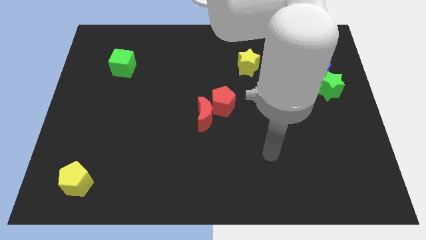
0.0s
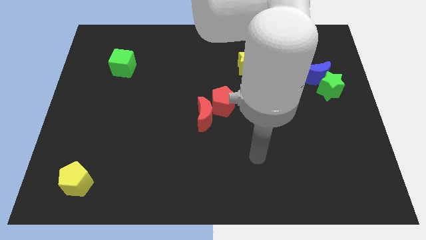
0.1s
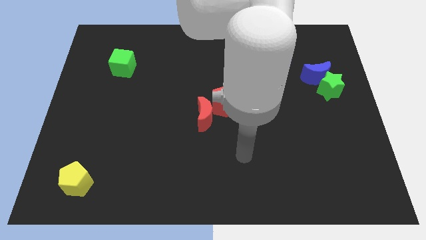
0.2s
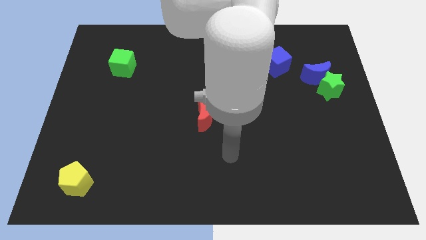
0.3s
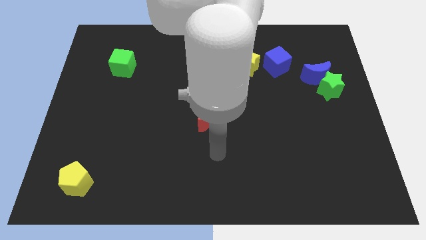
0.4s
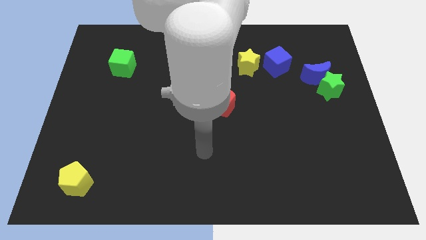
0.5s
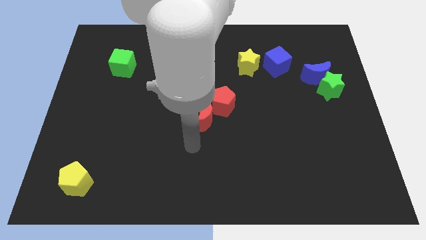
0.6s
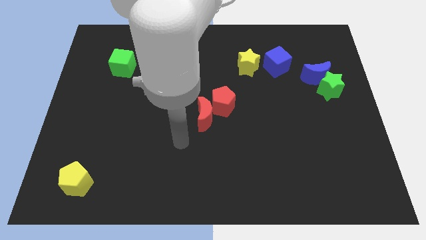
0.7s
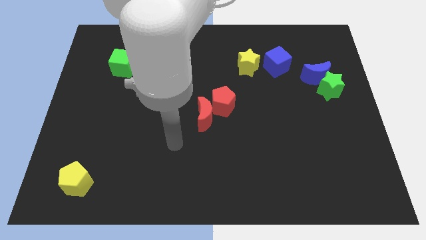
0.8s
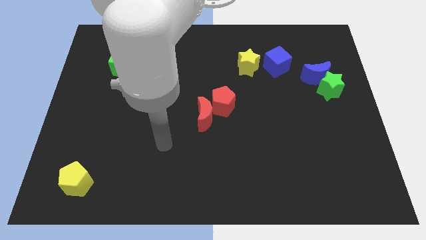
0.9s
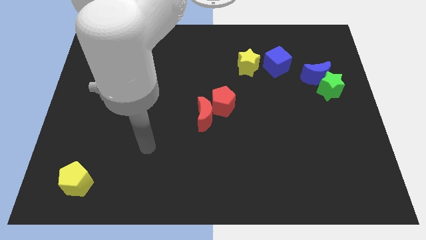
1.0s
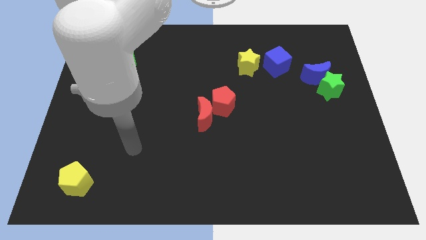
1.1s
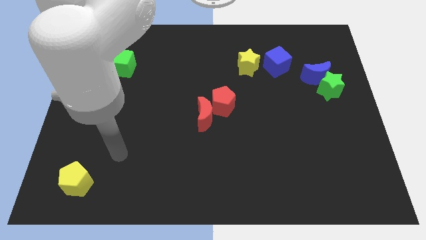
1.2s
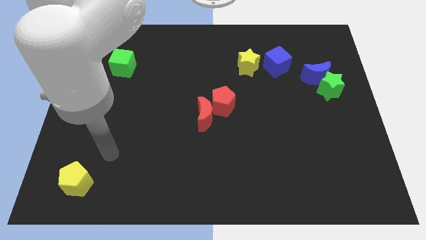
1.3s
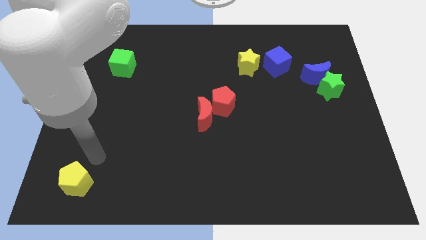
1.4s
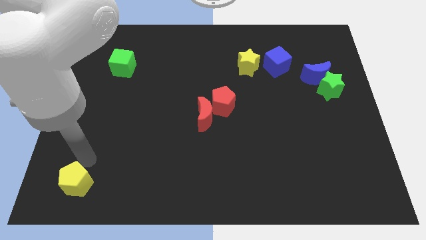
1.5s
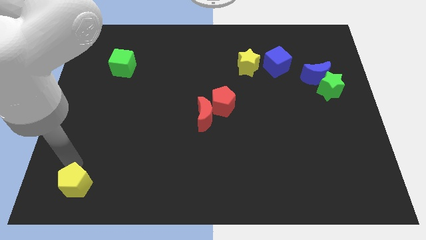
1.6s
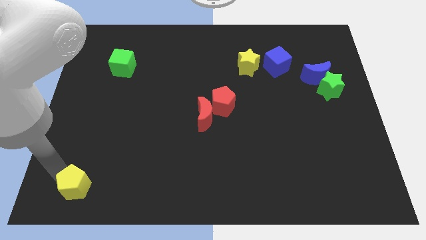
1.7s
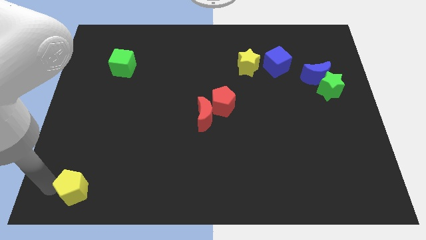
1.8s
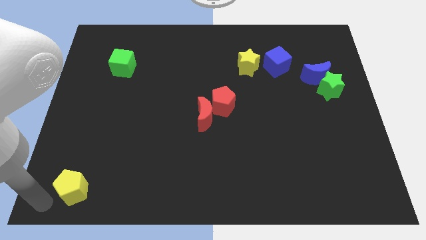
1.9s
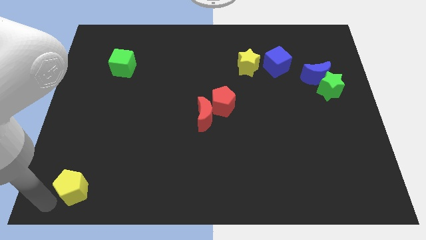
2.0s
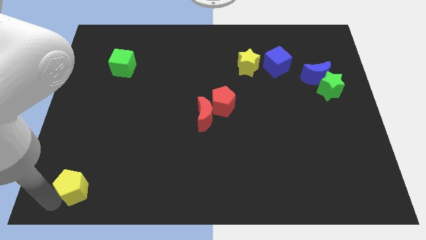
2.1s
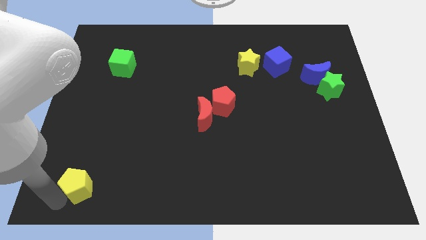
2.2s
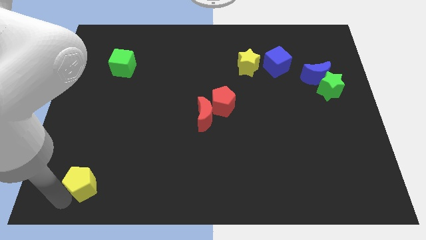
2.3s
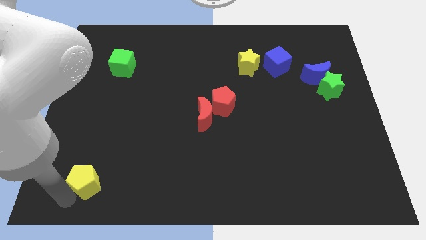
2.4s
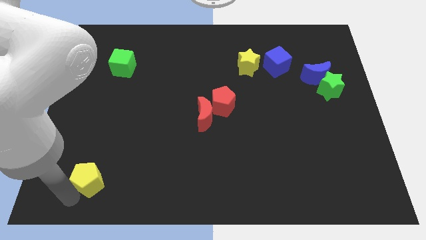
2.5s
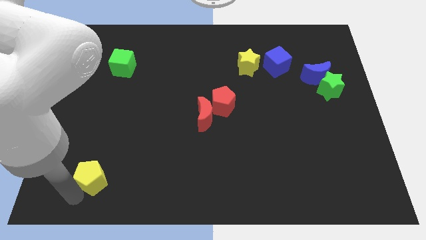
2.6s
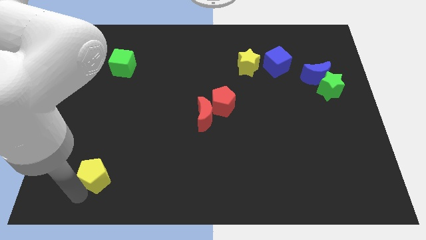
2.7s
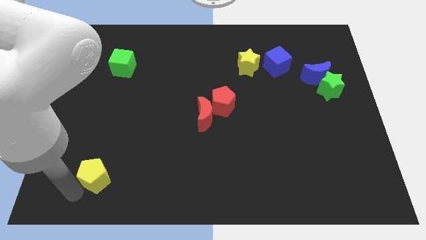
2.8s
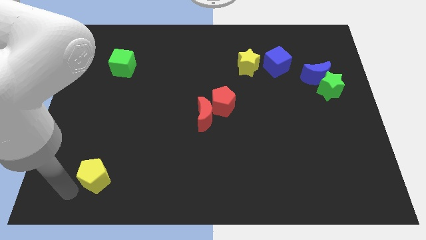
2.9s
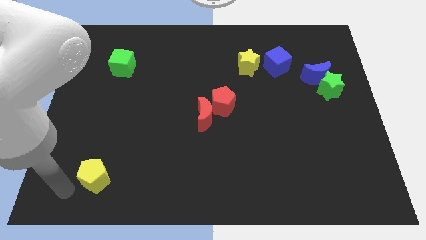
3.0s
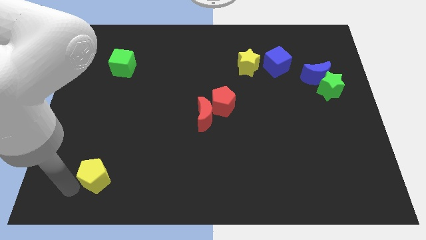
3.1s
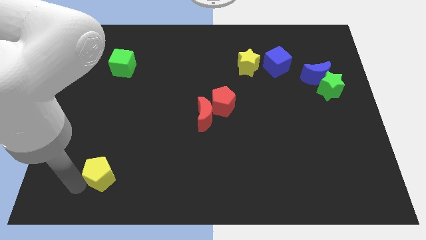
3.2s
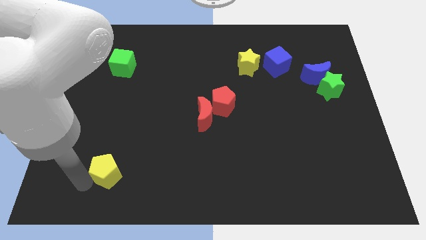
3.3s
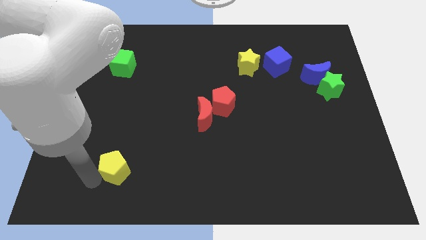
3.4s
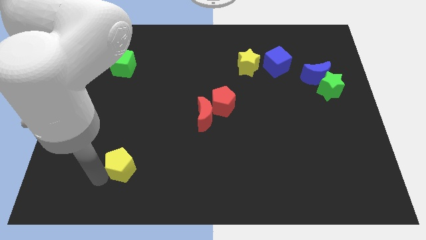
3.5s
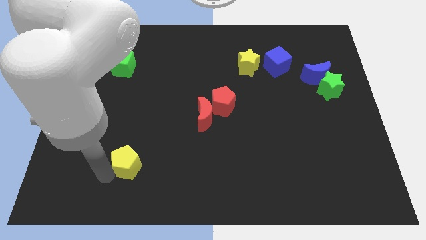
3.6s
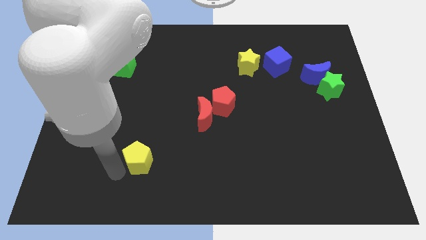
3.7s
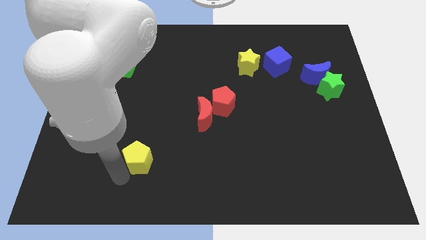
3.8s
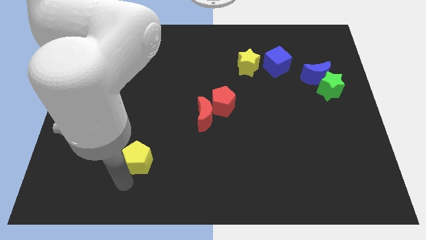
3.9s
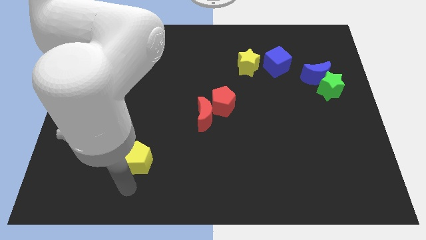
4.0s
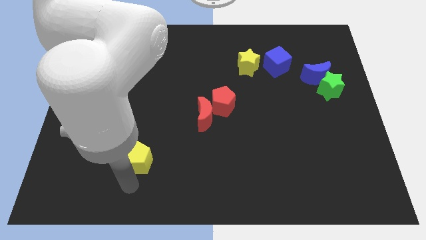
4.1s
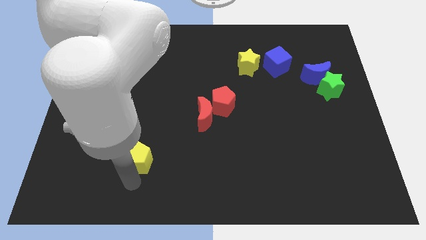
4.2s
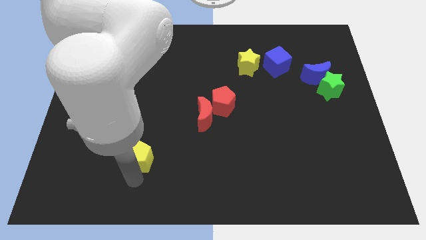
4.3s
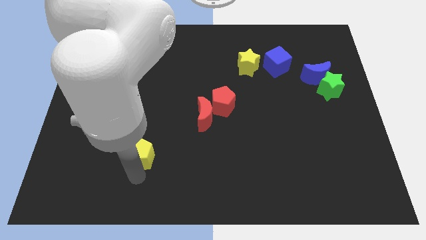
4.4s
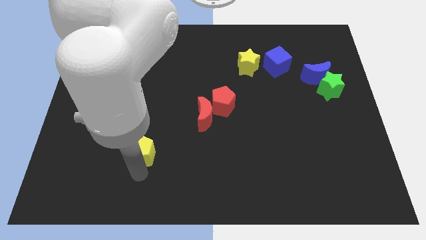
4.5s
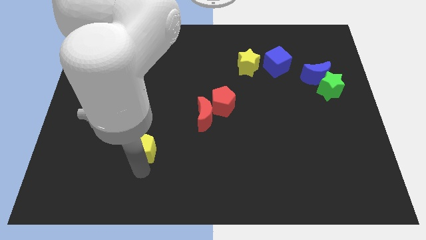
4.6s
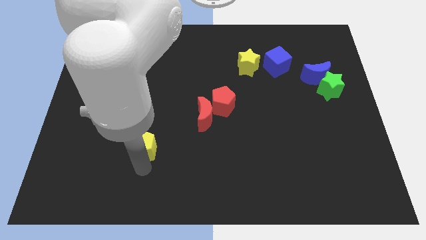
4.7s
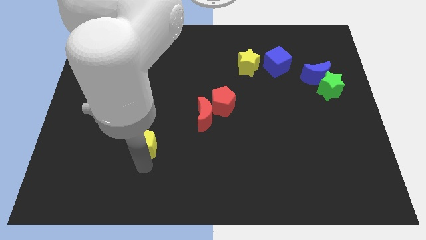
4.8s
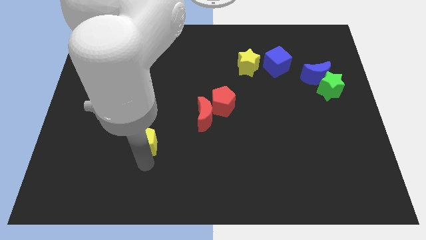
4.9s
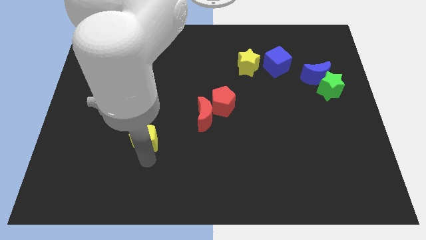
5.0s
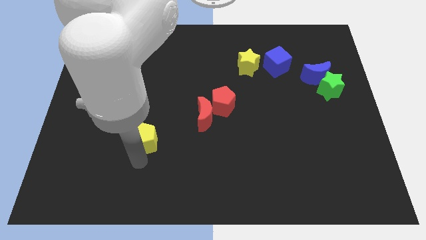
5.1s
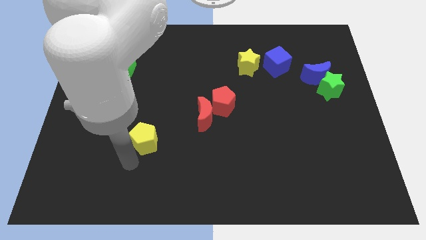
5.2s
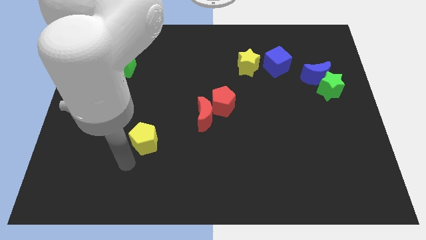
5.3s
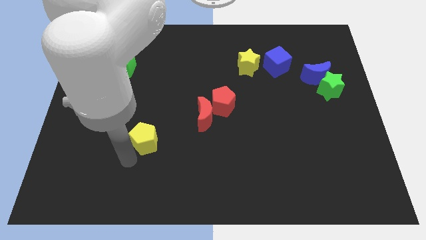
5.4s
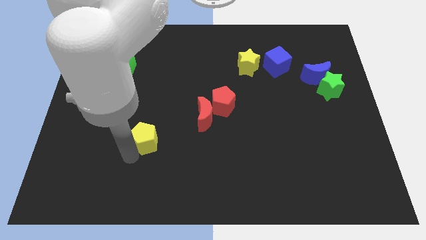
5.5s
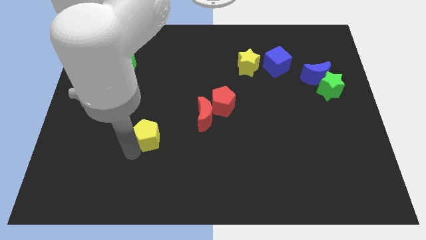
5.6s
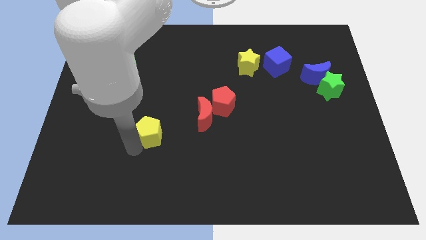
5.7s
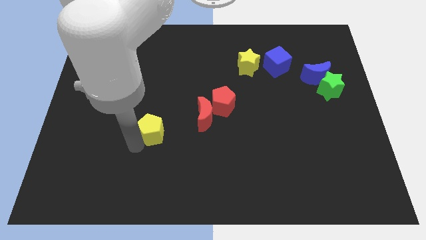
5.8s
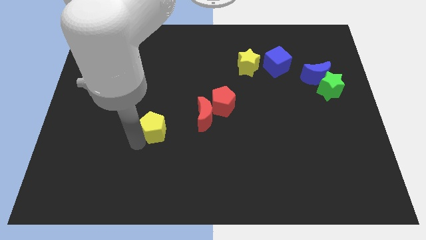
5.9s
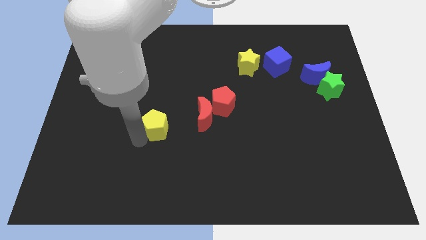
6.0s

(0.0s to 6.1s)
move the yellow pentagon upwards and to the right diagonally

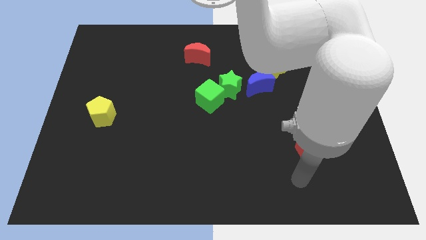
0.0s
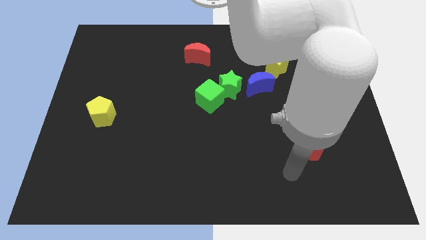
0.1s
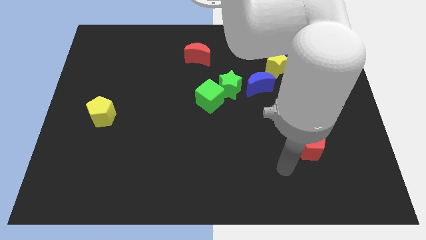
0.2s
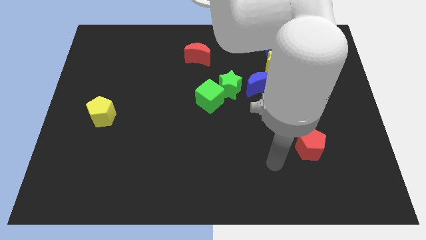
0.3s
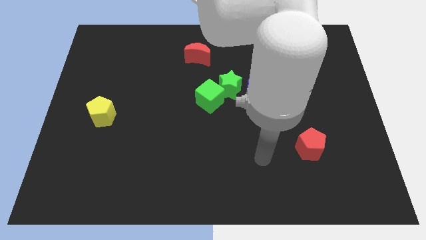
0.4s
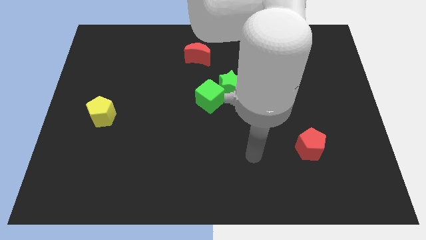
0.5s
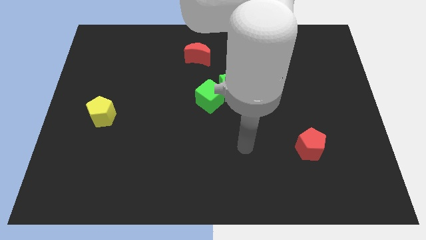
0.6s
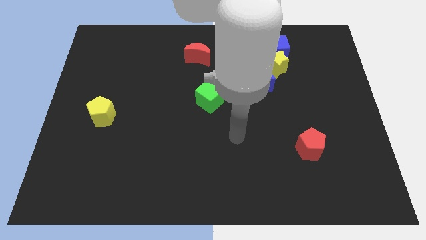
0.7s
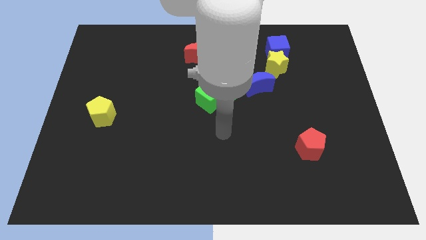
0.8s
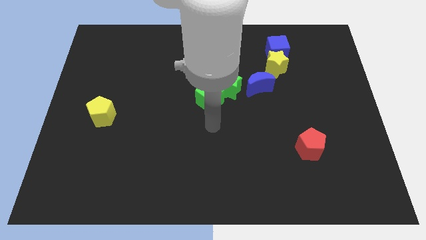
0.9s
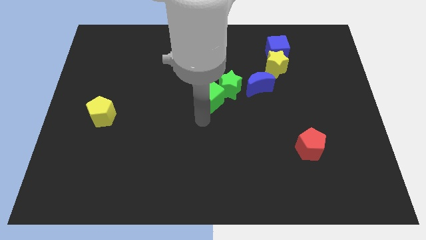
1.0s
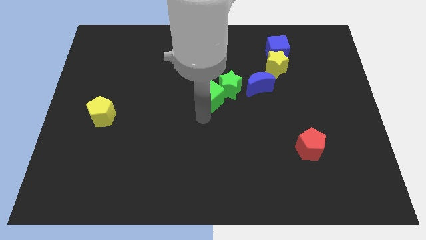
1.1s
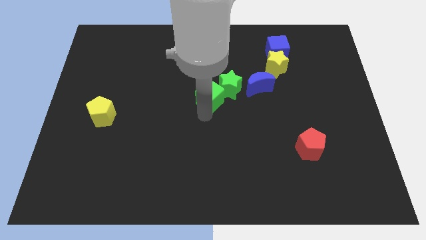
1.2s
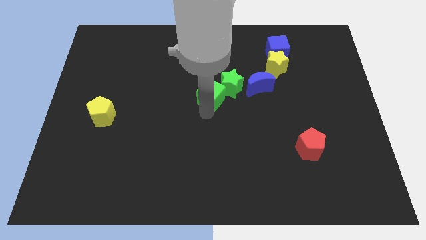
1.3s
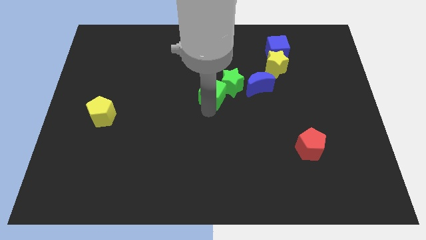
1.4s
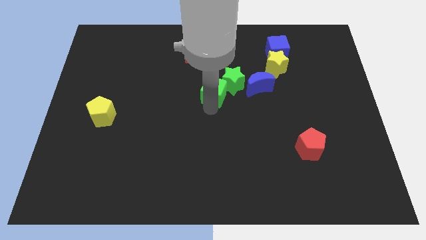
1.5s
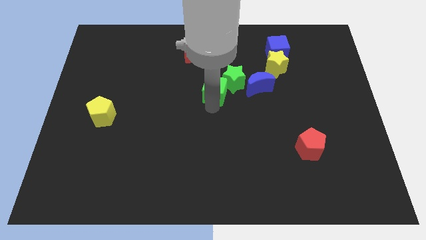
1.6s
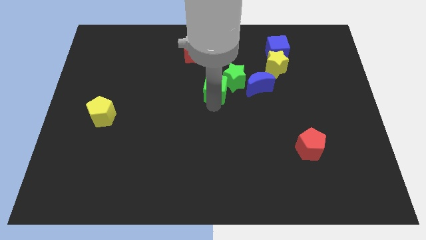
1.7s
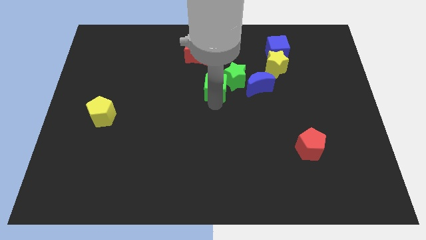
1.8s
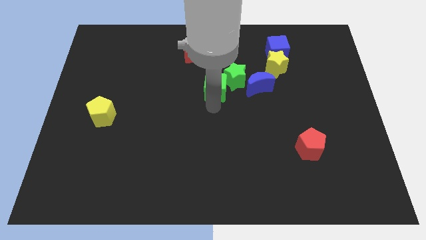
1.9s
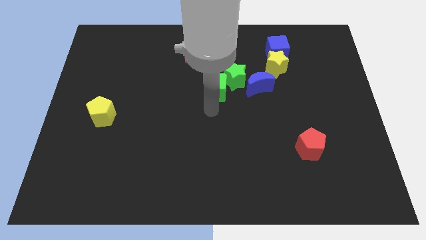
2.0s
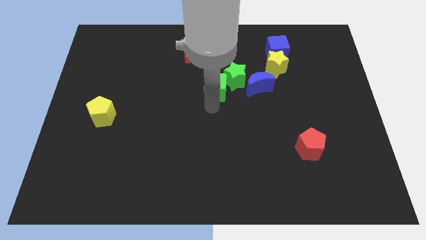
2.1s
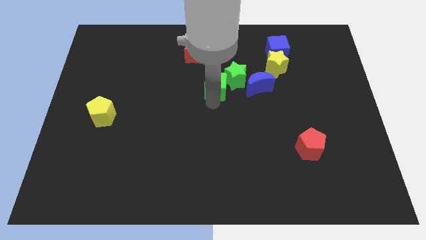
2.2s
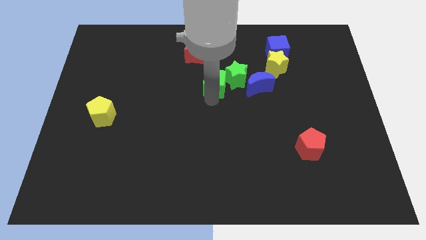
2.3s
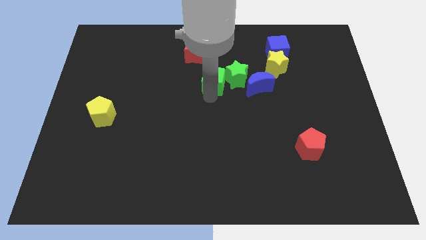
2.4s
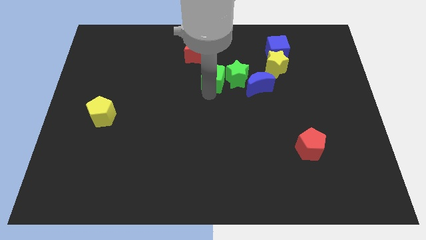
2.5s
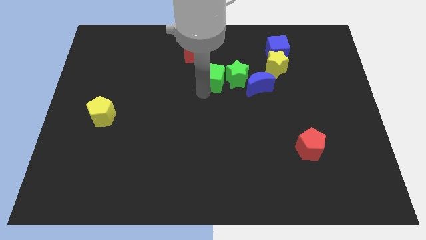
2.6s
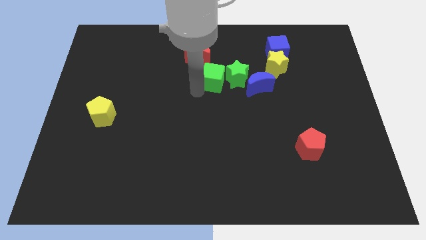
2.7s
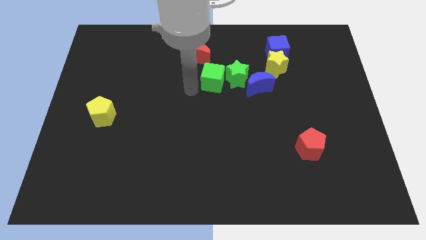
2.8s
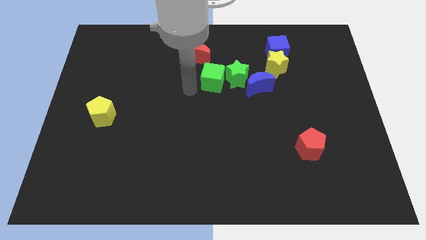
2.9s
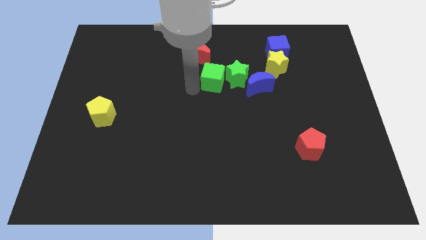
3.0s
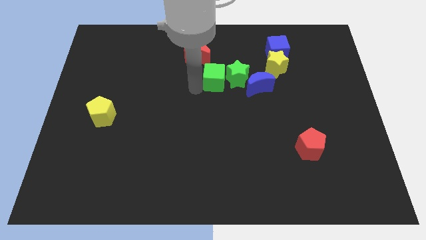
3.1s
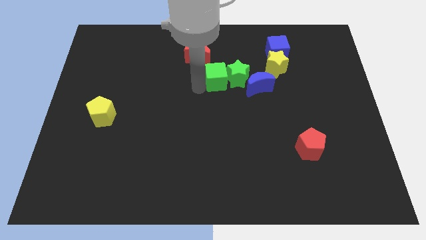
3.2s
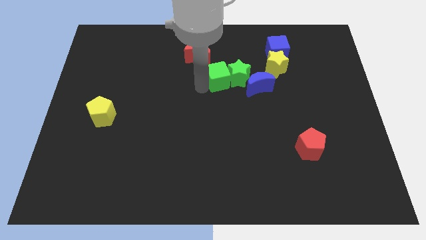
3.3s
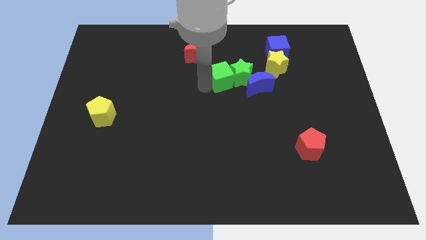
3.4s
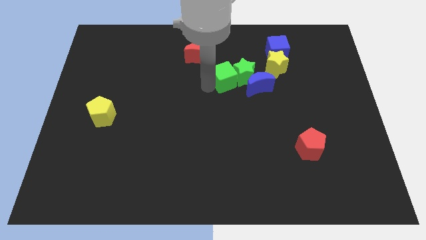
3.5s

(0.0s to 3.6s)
slightly slide the green cube up and to the right diagonally
